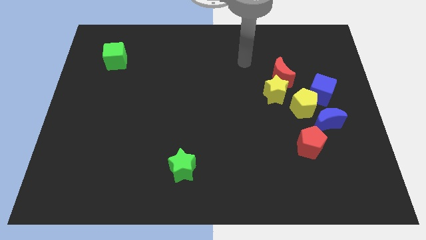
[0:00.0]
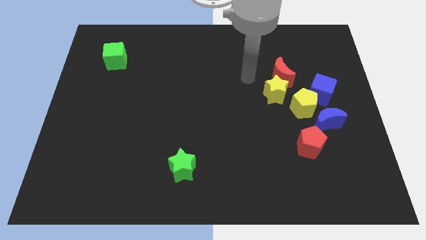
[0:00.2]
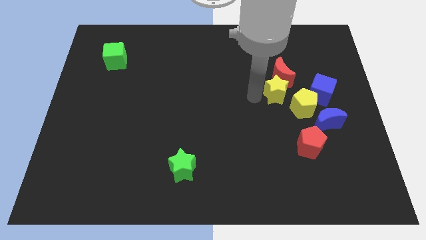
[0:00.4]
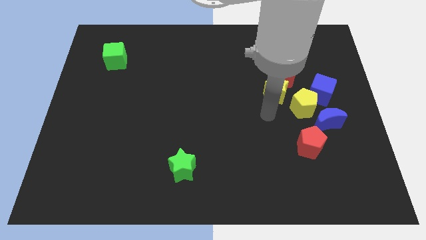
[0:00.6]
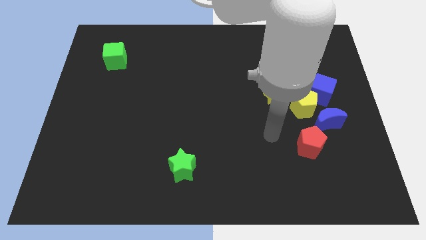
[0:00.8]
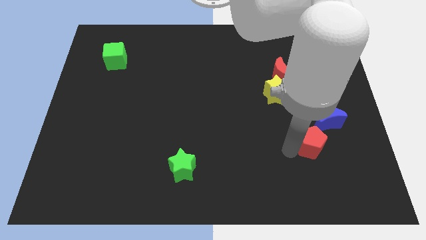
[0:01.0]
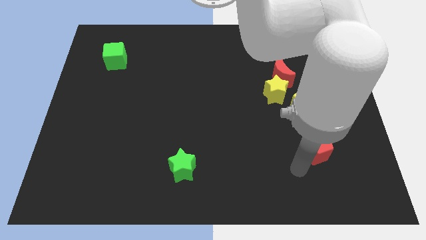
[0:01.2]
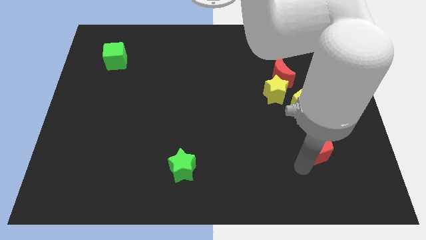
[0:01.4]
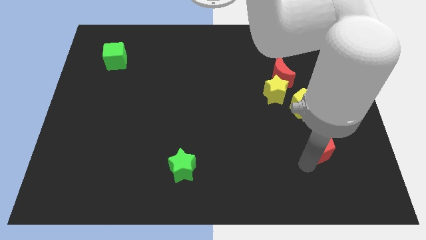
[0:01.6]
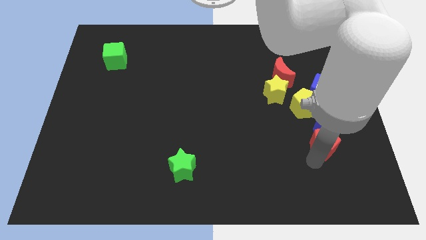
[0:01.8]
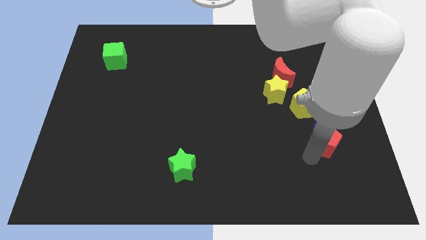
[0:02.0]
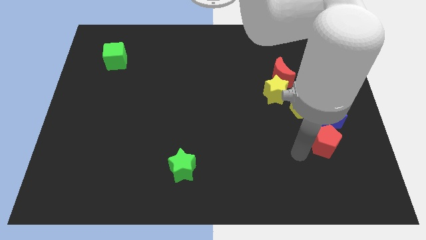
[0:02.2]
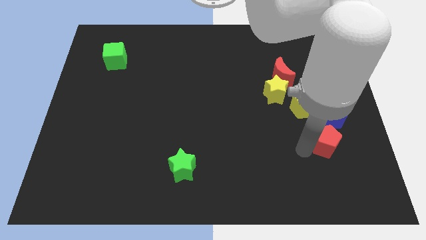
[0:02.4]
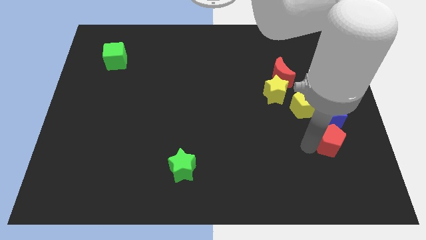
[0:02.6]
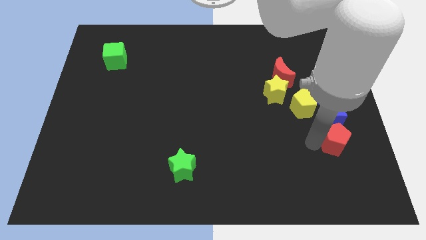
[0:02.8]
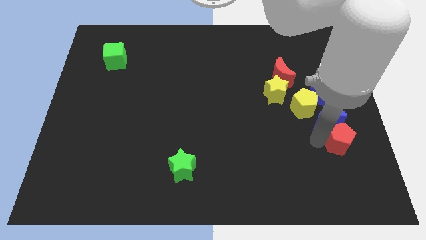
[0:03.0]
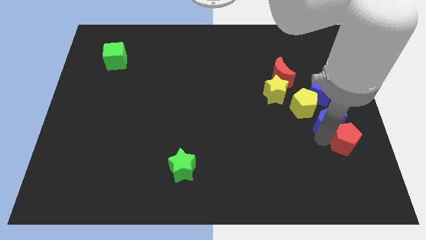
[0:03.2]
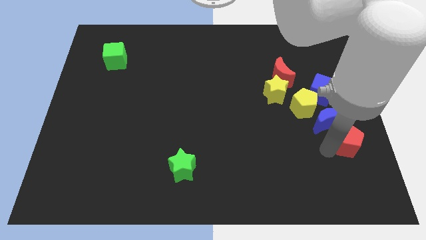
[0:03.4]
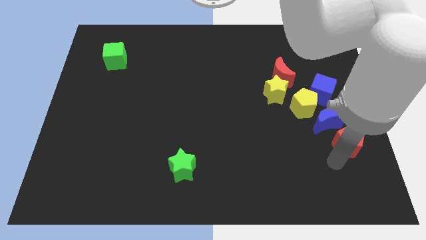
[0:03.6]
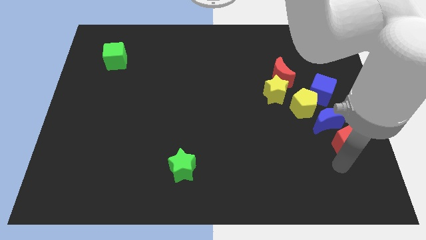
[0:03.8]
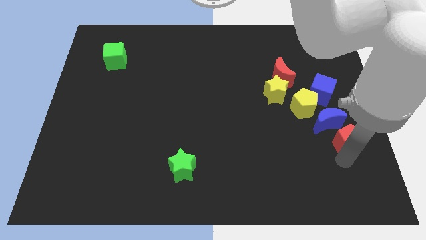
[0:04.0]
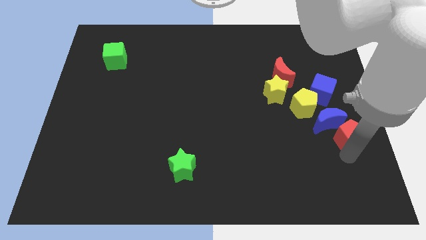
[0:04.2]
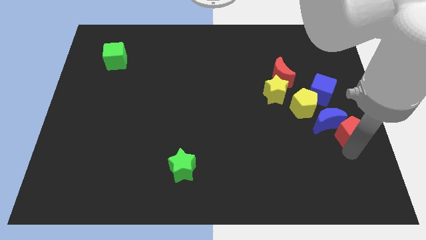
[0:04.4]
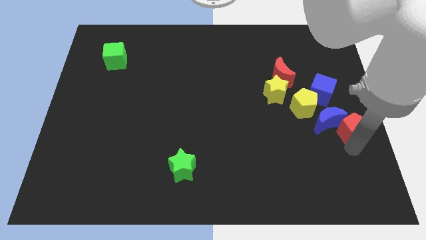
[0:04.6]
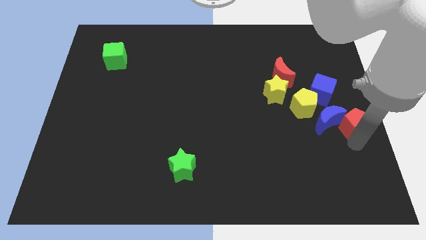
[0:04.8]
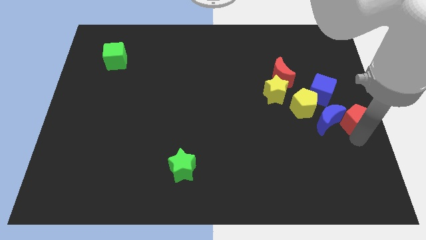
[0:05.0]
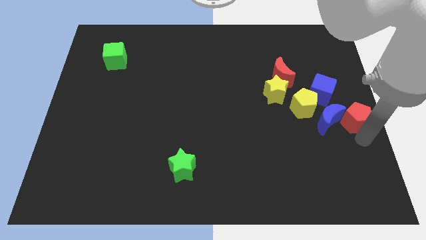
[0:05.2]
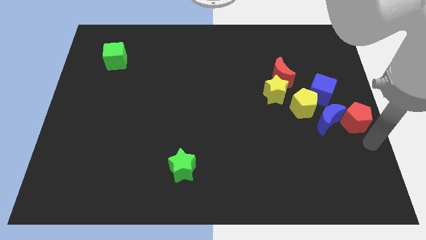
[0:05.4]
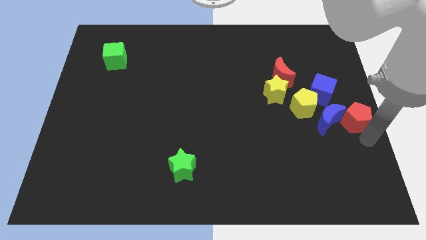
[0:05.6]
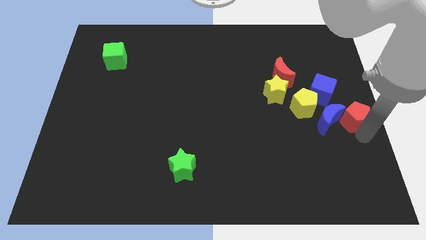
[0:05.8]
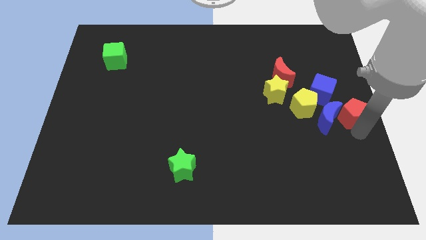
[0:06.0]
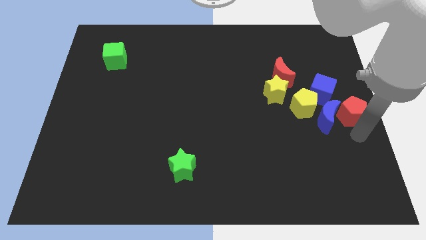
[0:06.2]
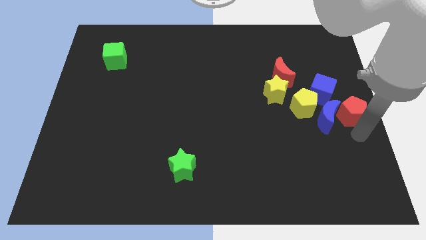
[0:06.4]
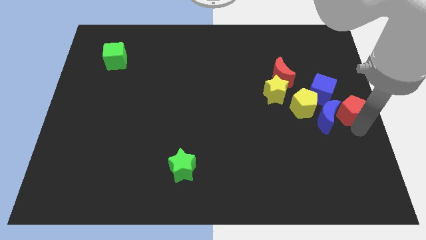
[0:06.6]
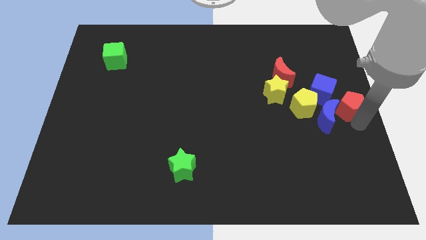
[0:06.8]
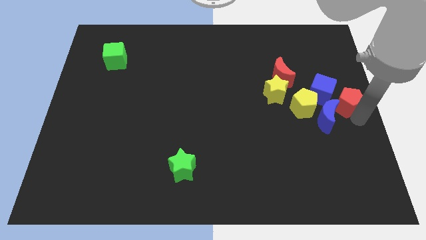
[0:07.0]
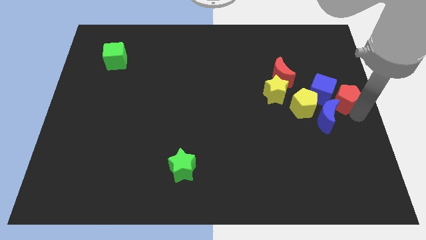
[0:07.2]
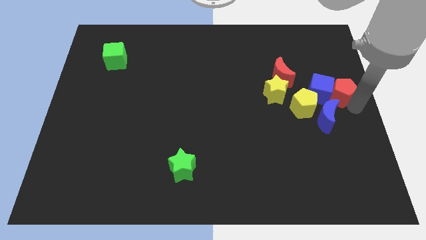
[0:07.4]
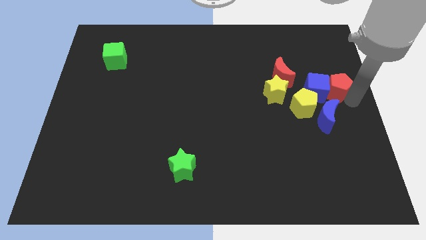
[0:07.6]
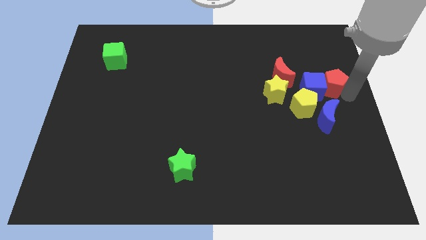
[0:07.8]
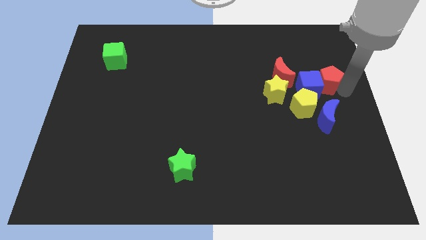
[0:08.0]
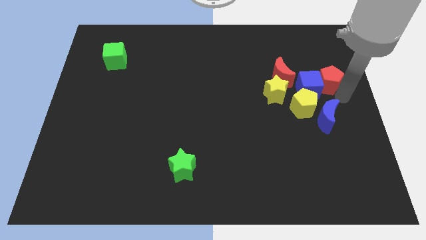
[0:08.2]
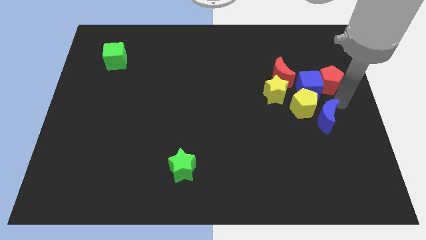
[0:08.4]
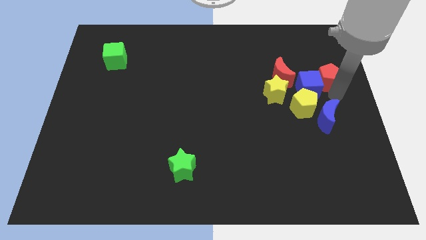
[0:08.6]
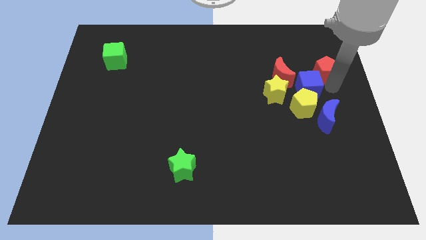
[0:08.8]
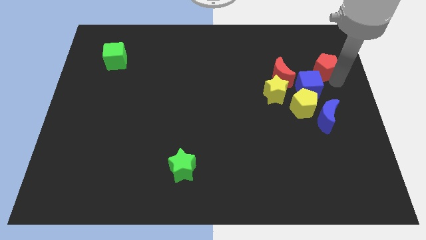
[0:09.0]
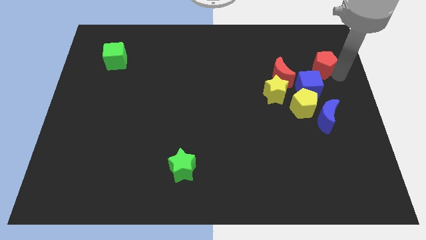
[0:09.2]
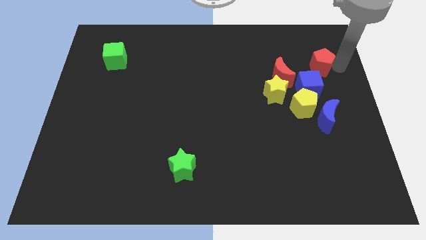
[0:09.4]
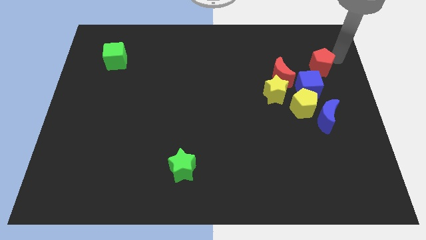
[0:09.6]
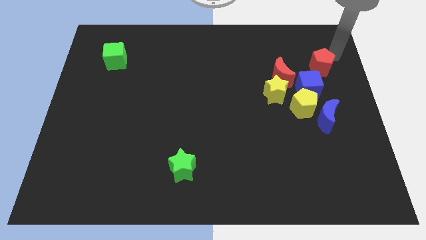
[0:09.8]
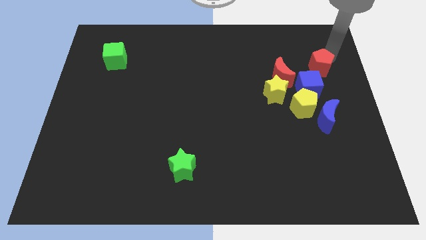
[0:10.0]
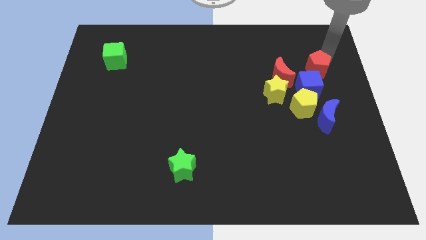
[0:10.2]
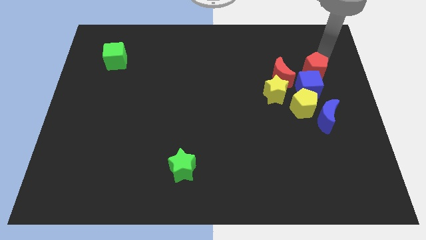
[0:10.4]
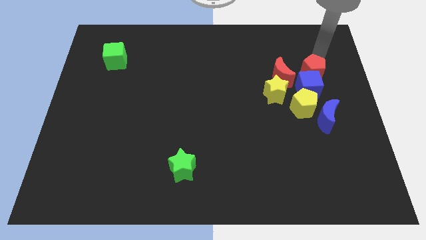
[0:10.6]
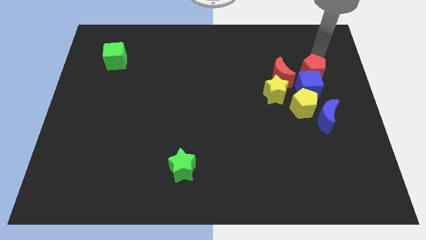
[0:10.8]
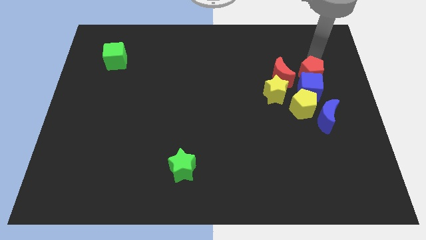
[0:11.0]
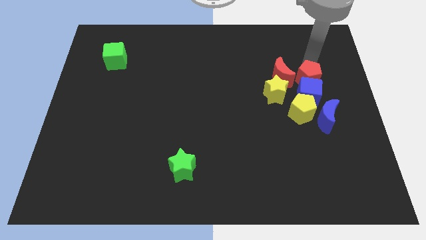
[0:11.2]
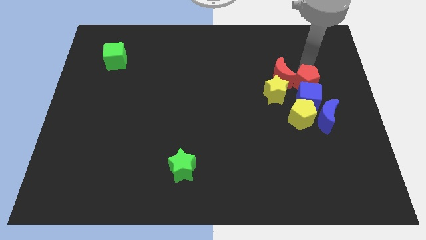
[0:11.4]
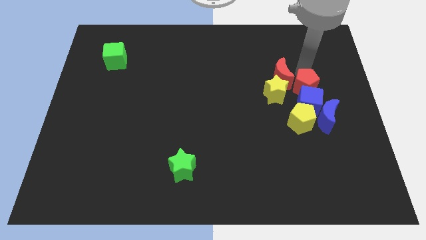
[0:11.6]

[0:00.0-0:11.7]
move the red pentagon diagonally up and to the left of the blue moon

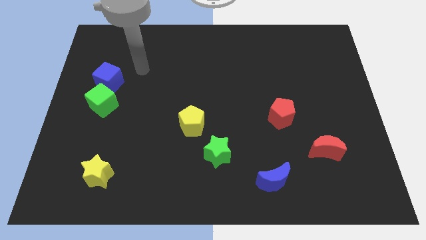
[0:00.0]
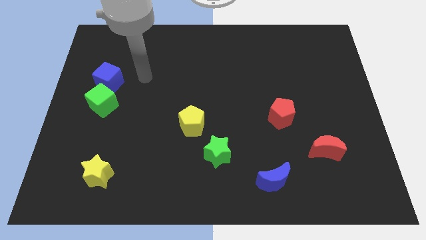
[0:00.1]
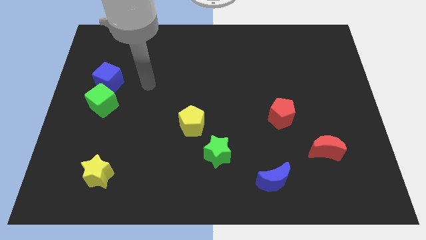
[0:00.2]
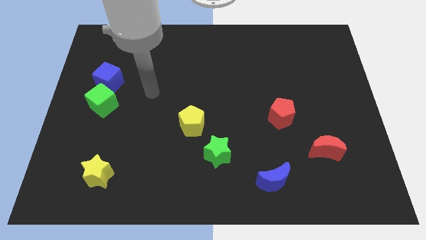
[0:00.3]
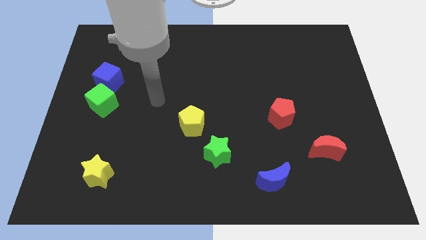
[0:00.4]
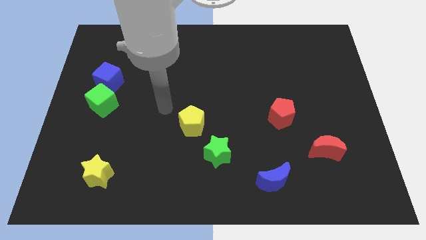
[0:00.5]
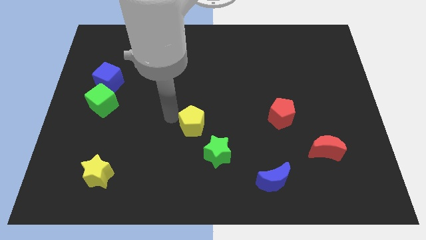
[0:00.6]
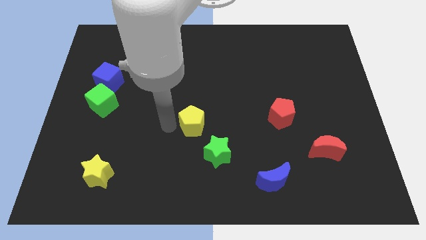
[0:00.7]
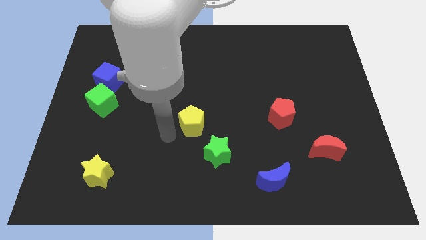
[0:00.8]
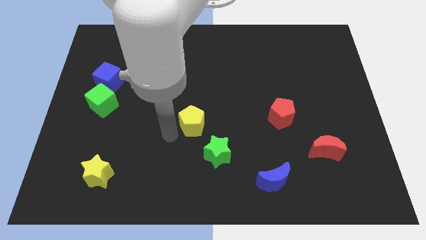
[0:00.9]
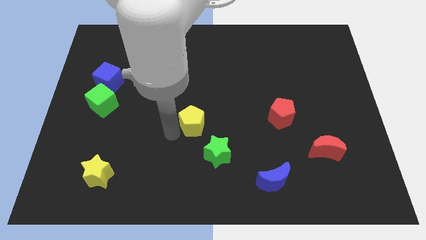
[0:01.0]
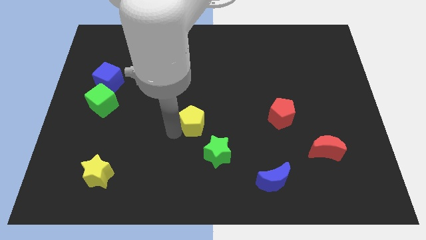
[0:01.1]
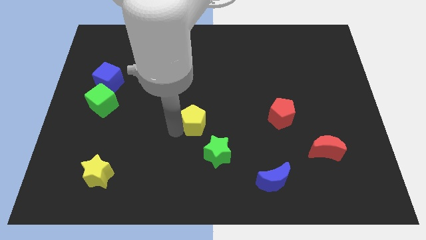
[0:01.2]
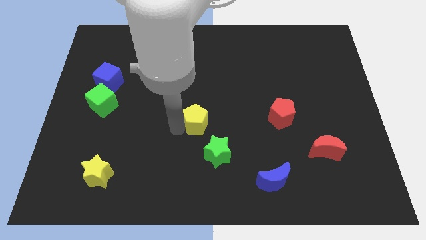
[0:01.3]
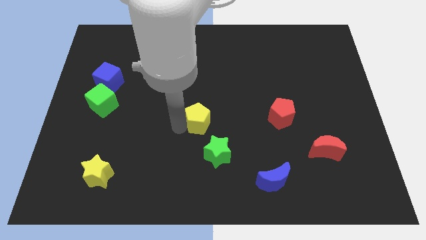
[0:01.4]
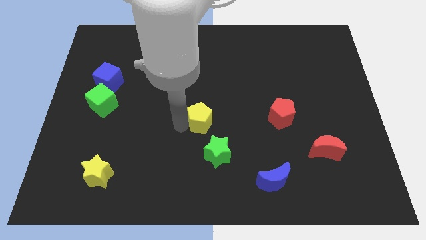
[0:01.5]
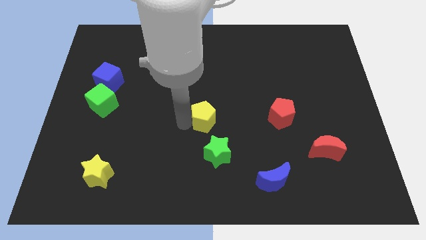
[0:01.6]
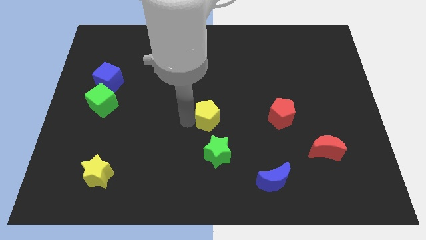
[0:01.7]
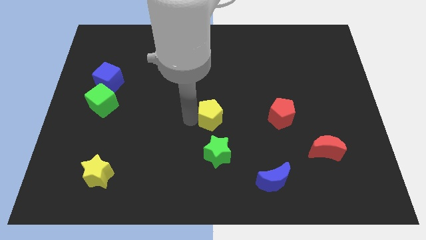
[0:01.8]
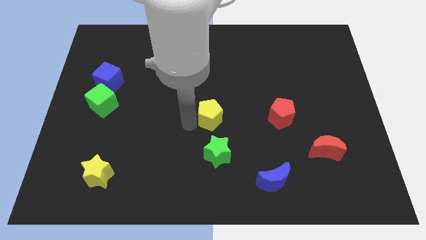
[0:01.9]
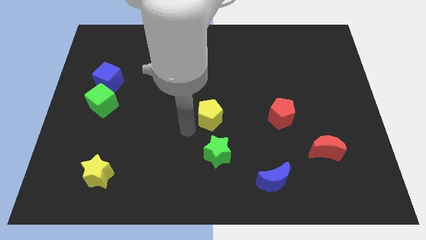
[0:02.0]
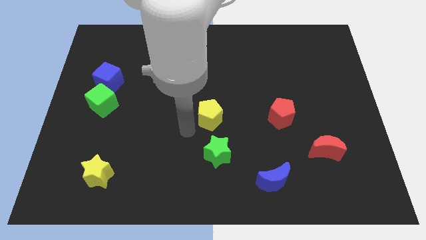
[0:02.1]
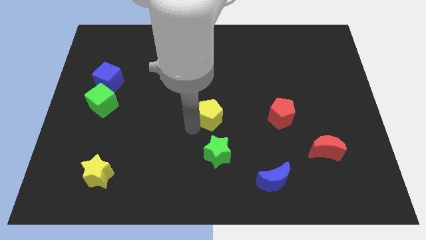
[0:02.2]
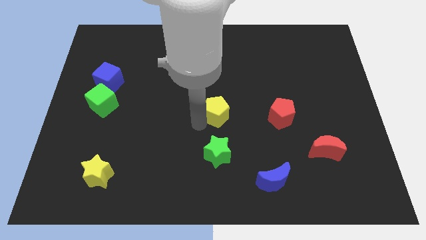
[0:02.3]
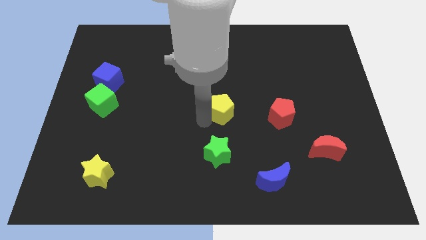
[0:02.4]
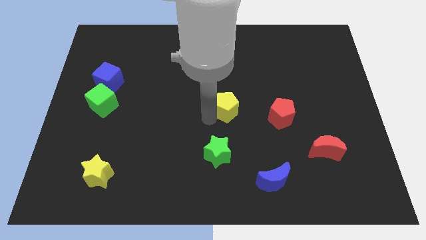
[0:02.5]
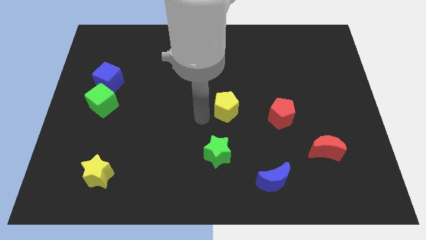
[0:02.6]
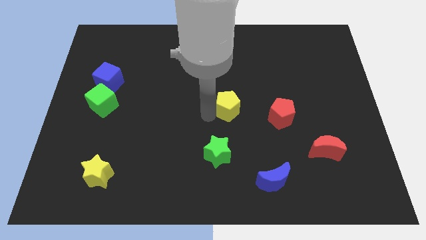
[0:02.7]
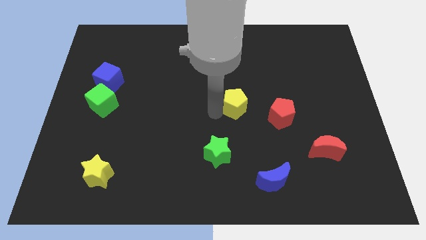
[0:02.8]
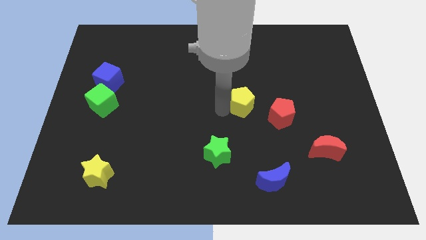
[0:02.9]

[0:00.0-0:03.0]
push the yellow pentagon to the top left of the red pentagon
